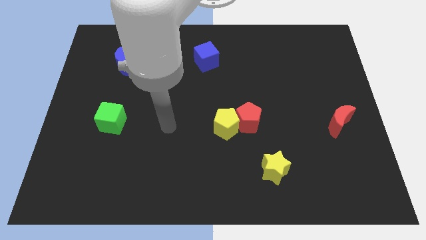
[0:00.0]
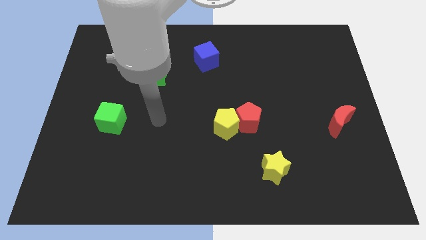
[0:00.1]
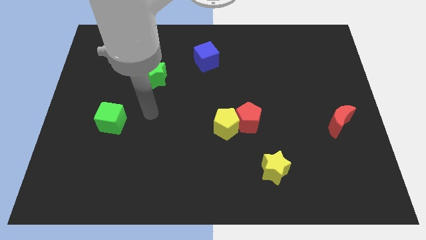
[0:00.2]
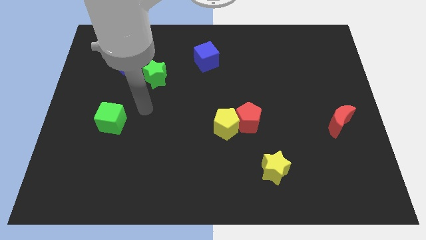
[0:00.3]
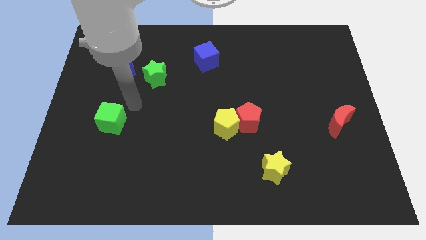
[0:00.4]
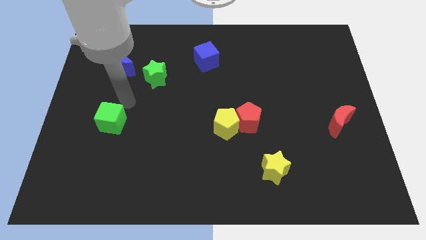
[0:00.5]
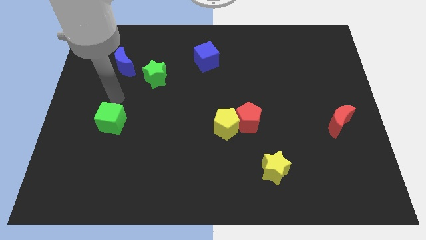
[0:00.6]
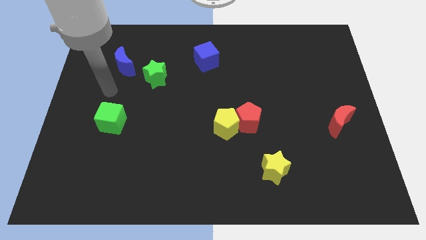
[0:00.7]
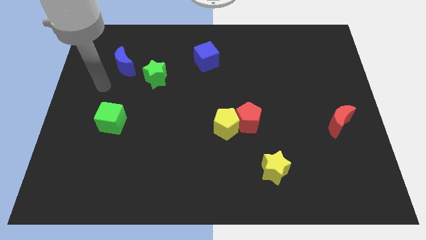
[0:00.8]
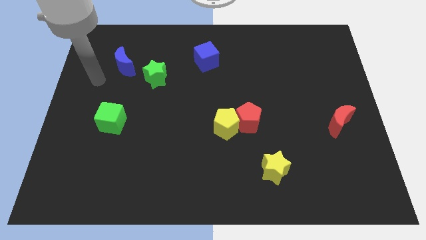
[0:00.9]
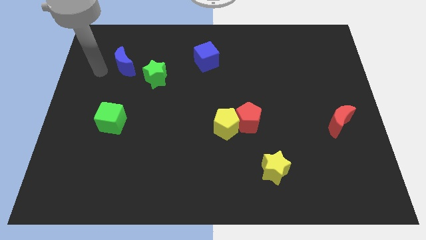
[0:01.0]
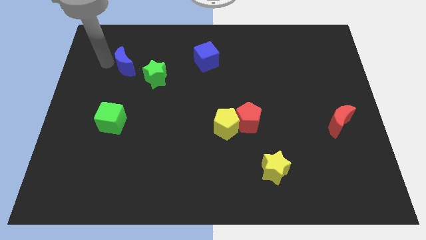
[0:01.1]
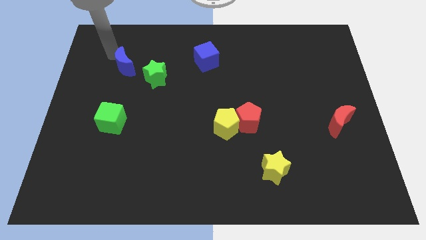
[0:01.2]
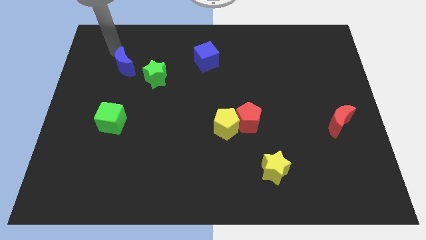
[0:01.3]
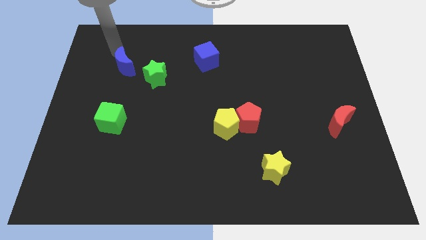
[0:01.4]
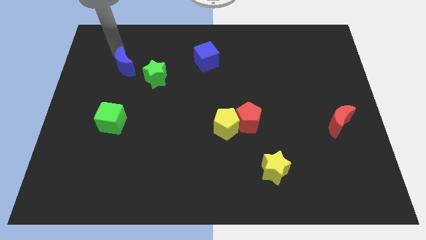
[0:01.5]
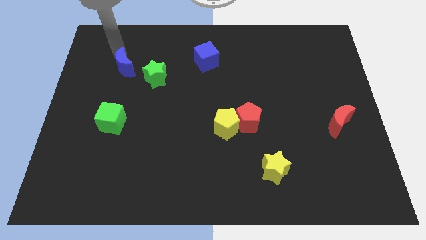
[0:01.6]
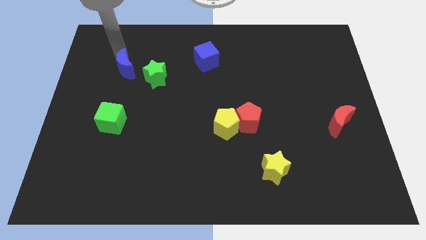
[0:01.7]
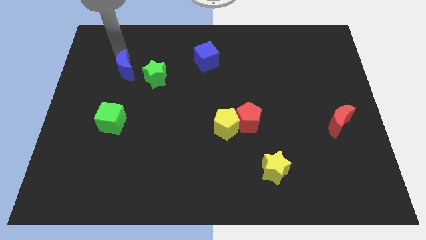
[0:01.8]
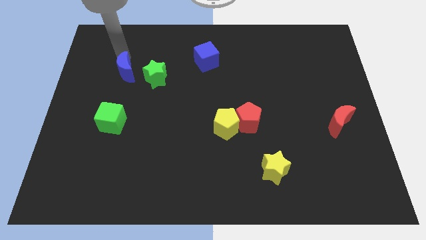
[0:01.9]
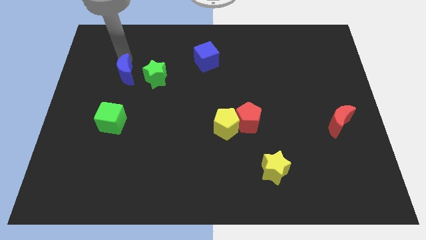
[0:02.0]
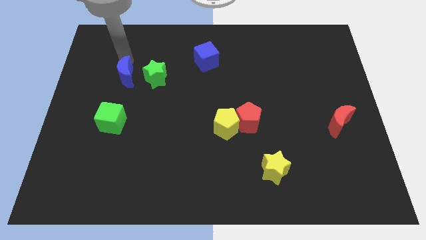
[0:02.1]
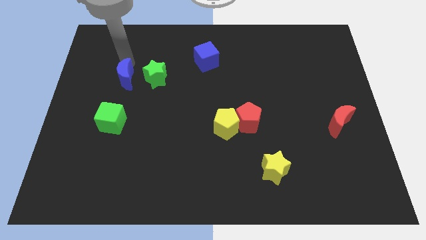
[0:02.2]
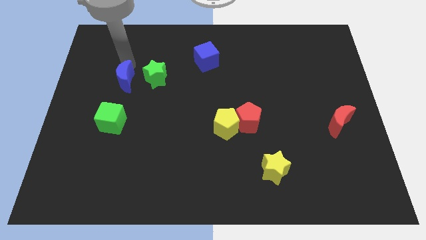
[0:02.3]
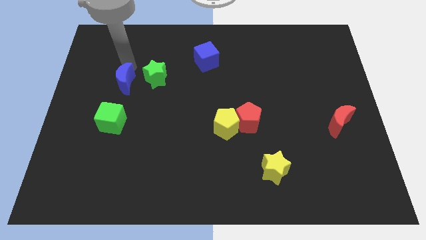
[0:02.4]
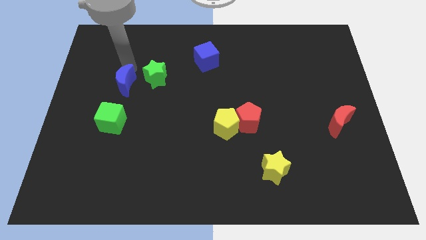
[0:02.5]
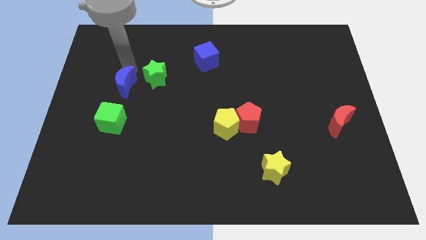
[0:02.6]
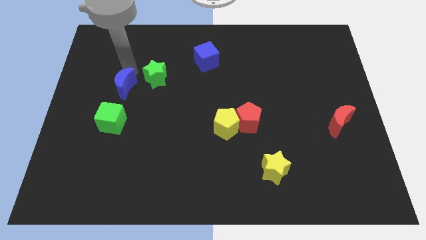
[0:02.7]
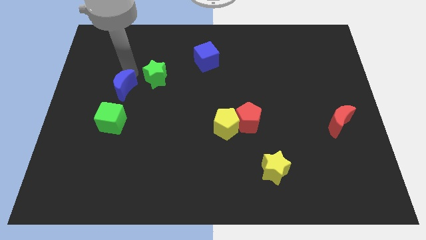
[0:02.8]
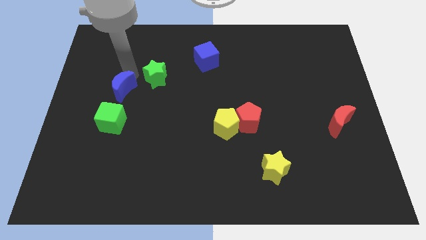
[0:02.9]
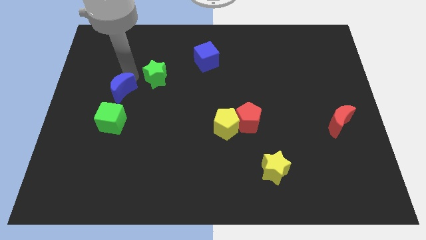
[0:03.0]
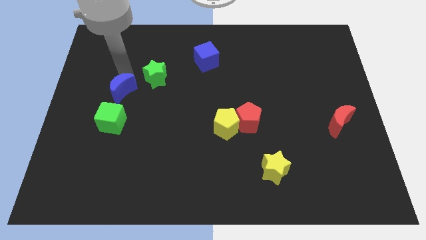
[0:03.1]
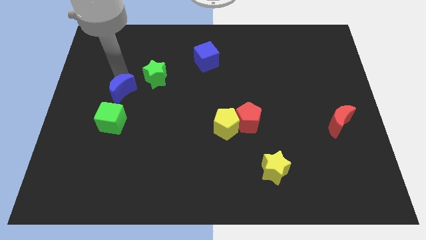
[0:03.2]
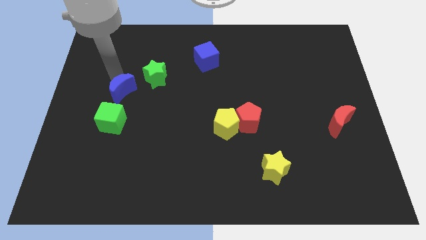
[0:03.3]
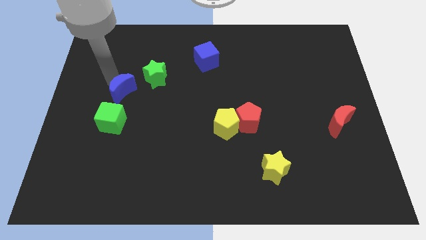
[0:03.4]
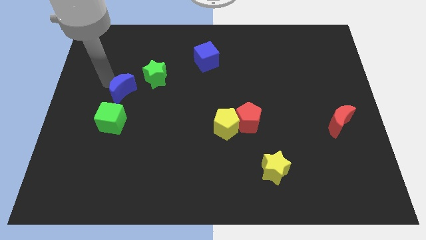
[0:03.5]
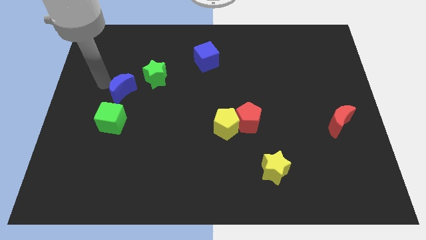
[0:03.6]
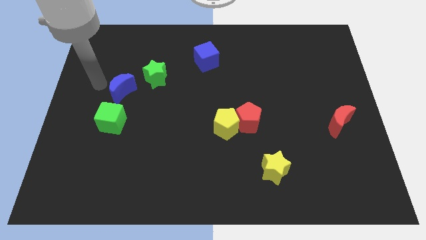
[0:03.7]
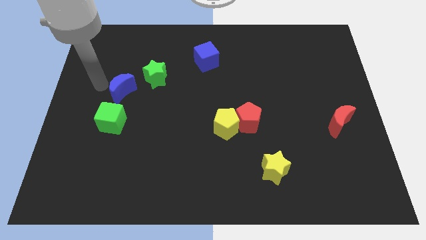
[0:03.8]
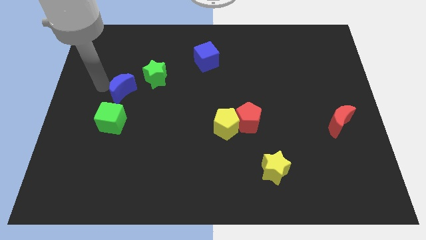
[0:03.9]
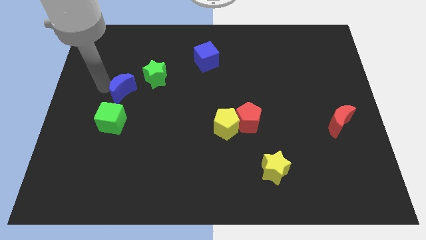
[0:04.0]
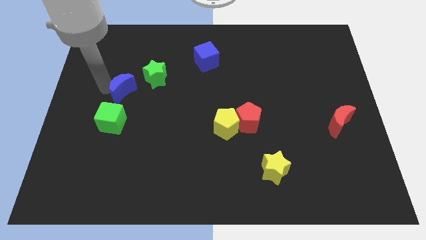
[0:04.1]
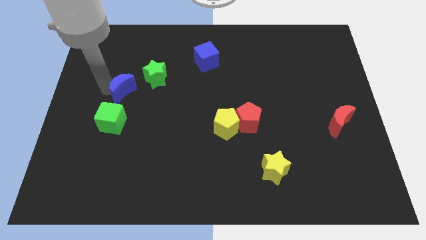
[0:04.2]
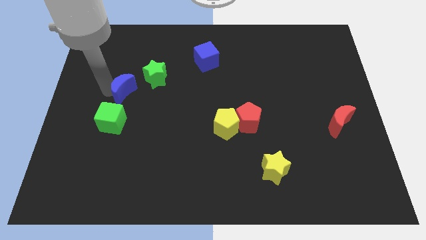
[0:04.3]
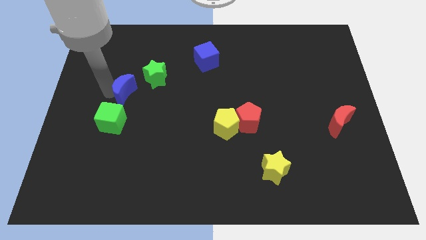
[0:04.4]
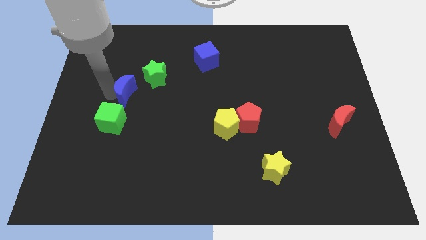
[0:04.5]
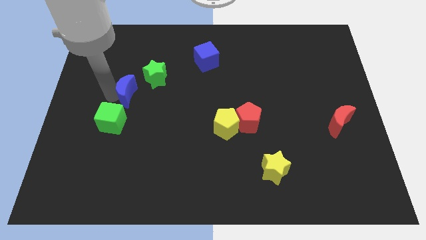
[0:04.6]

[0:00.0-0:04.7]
slide the blue moon downwards and then right a bit

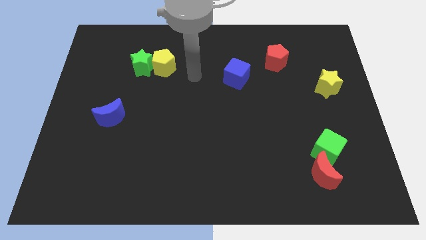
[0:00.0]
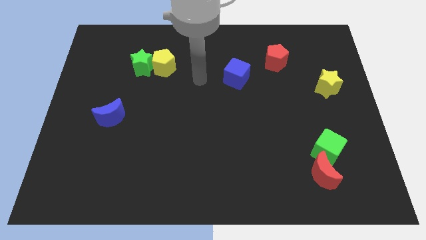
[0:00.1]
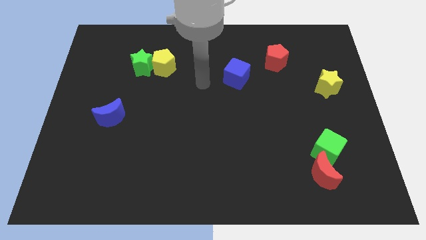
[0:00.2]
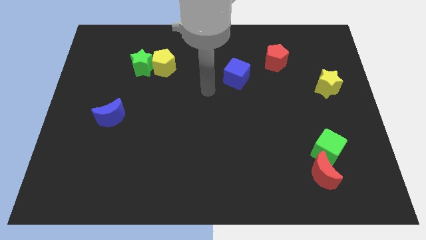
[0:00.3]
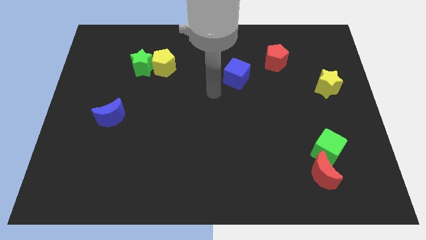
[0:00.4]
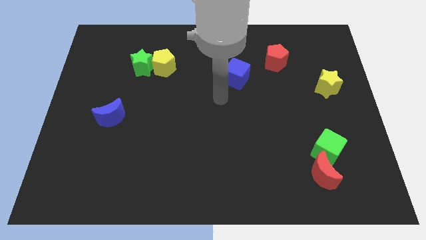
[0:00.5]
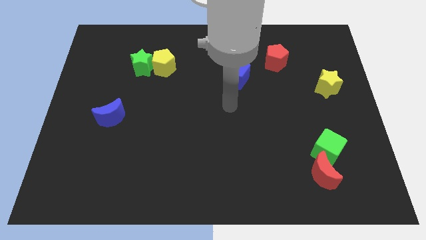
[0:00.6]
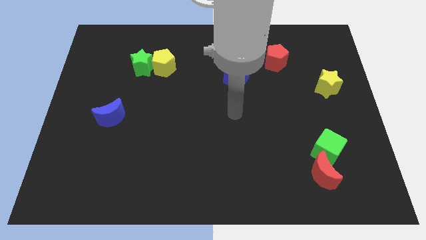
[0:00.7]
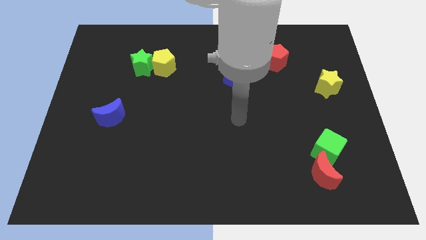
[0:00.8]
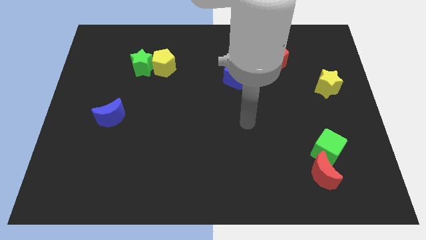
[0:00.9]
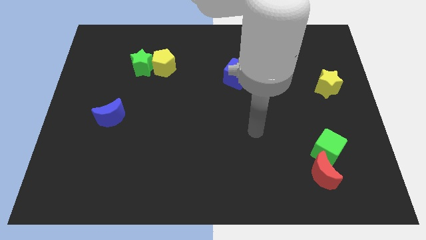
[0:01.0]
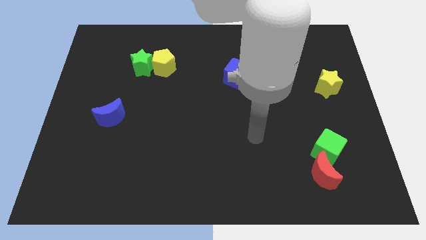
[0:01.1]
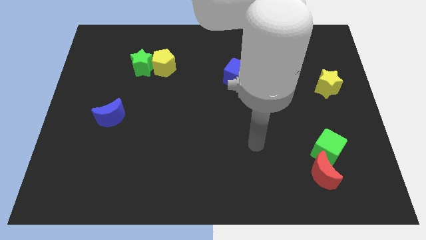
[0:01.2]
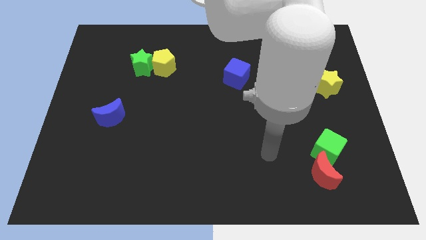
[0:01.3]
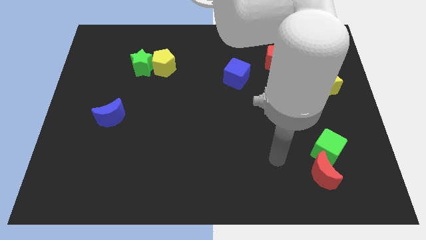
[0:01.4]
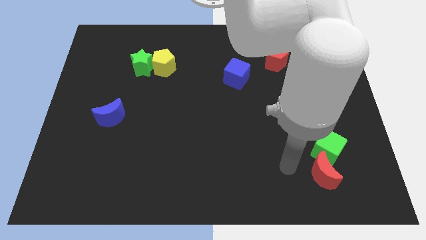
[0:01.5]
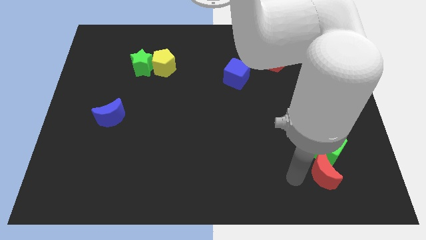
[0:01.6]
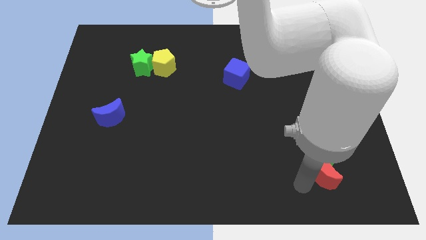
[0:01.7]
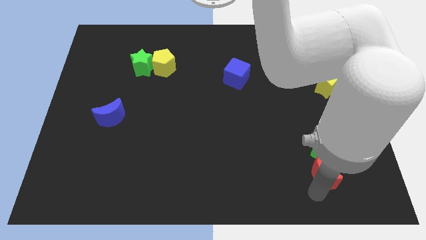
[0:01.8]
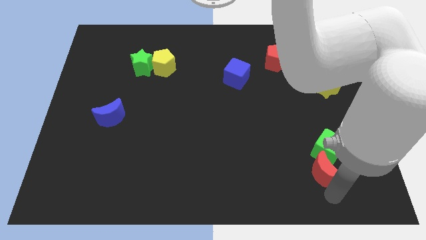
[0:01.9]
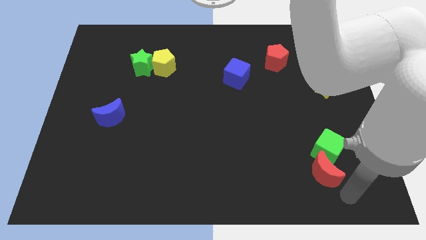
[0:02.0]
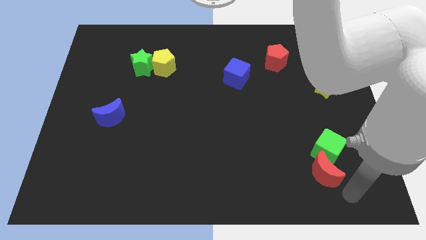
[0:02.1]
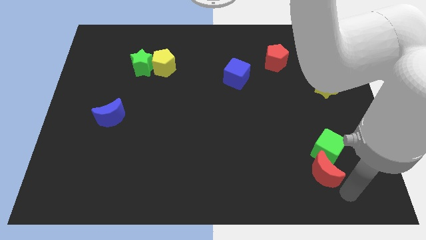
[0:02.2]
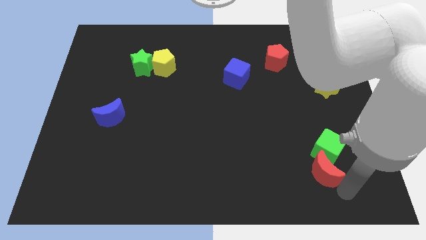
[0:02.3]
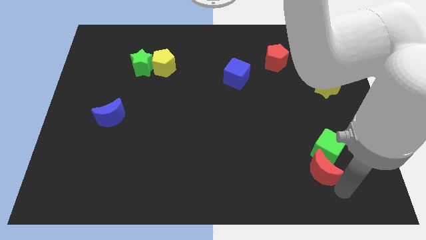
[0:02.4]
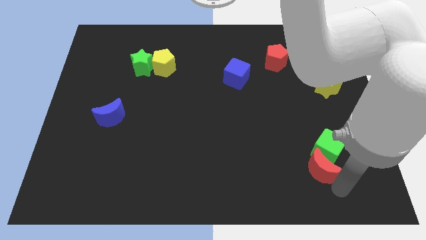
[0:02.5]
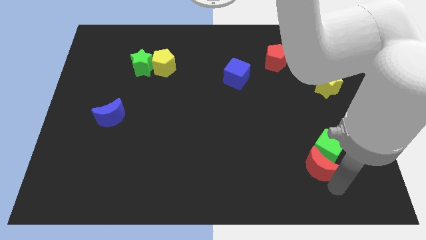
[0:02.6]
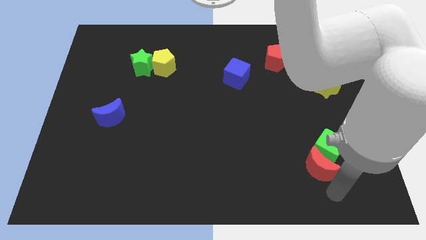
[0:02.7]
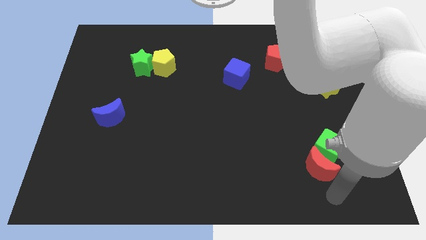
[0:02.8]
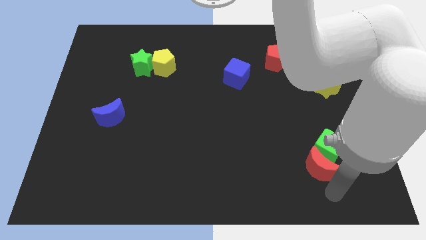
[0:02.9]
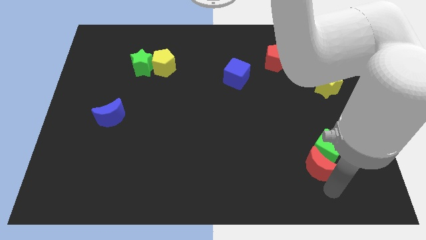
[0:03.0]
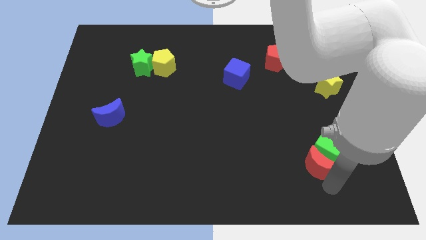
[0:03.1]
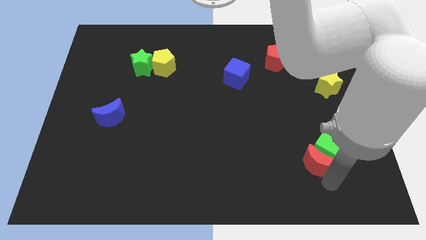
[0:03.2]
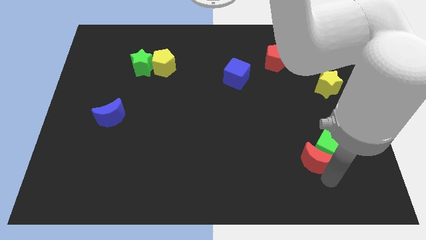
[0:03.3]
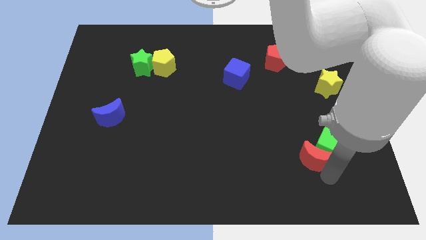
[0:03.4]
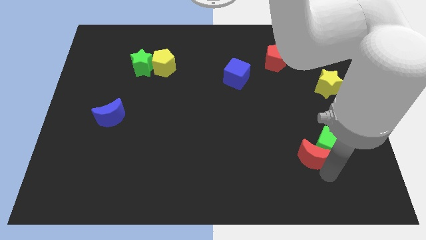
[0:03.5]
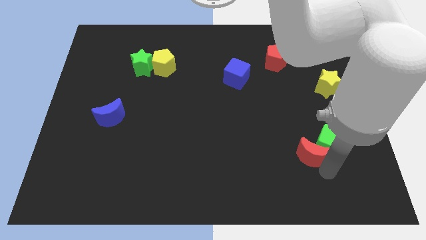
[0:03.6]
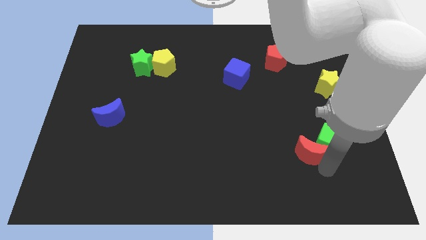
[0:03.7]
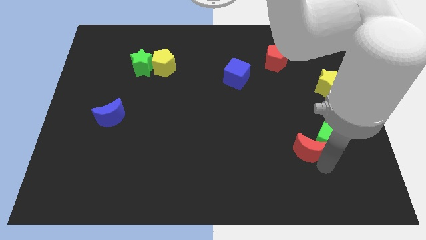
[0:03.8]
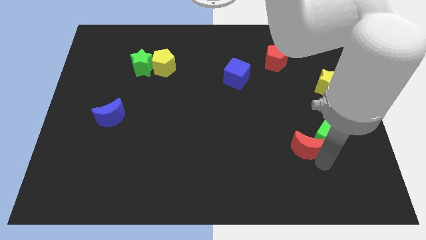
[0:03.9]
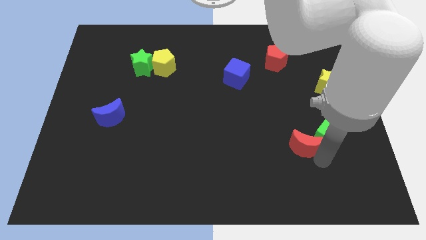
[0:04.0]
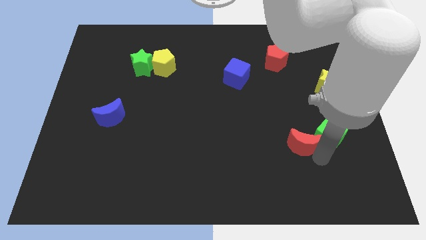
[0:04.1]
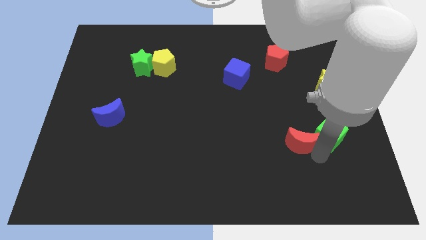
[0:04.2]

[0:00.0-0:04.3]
move the red moon a little up
